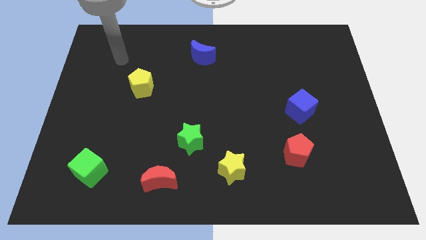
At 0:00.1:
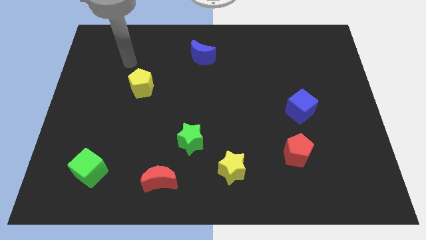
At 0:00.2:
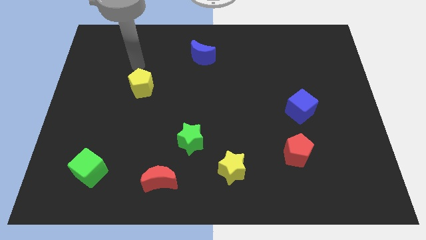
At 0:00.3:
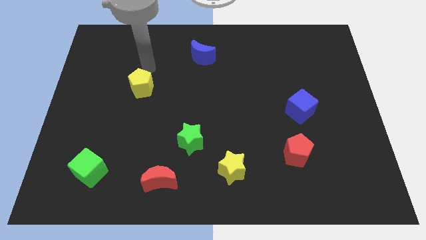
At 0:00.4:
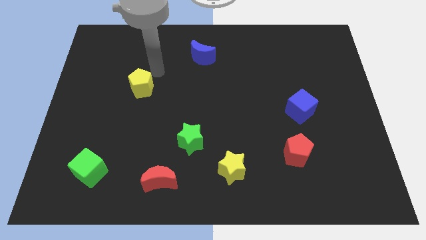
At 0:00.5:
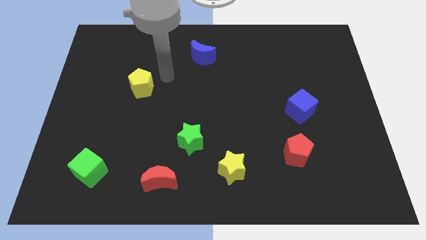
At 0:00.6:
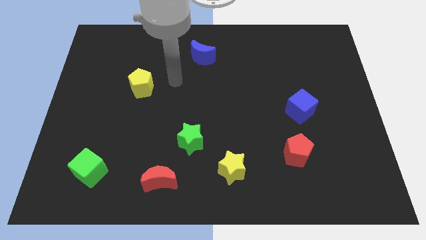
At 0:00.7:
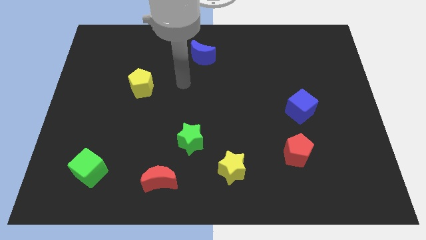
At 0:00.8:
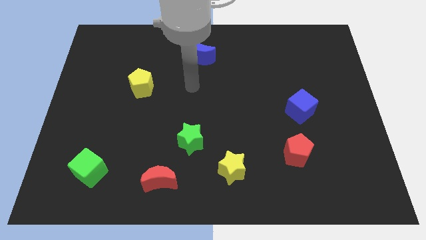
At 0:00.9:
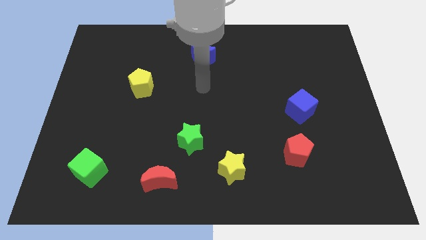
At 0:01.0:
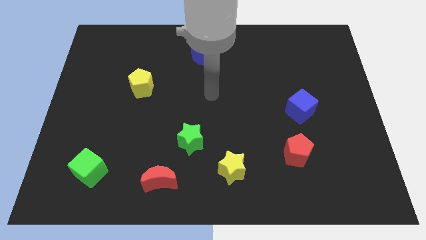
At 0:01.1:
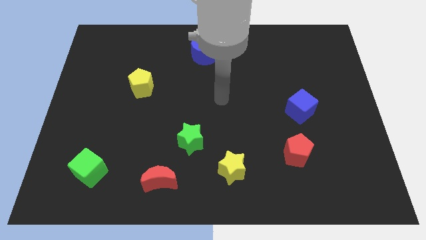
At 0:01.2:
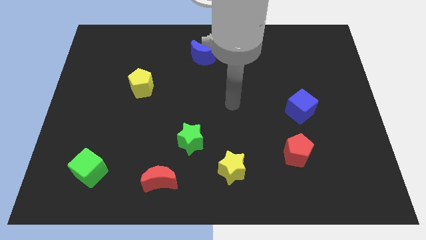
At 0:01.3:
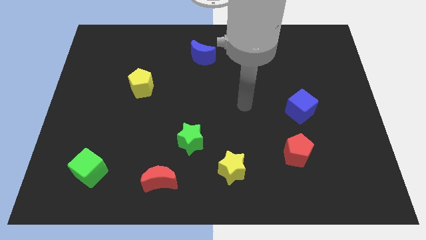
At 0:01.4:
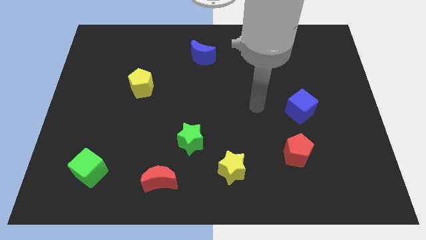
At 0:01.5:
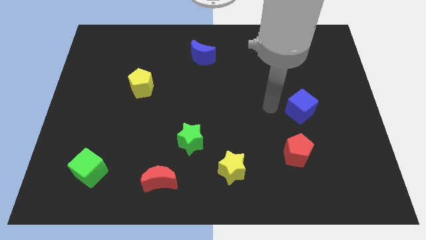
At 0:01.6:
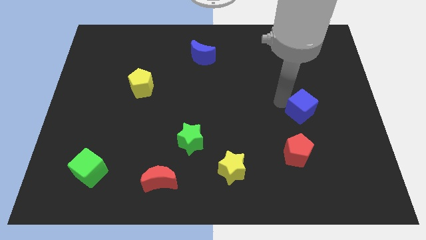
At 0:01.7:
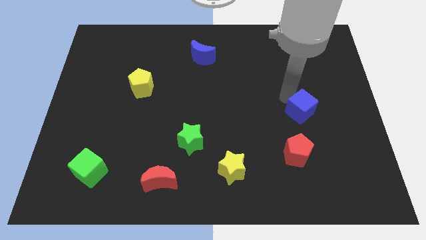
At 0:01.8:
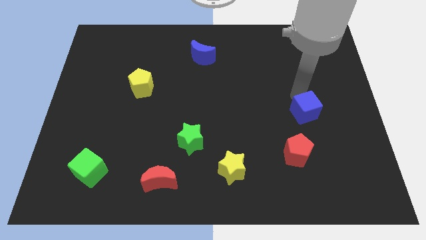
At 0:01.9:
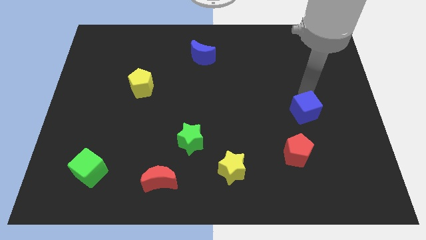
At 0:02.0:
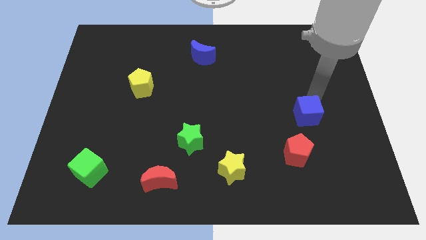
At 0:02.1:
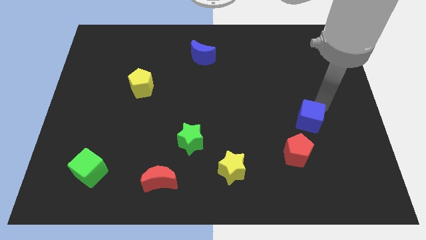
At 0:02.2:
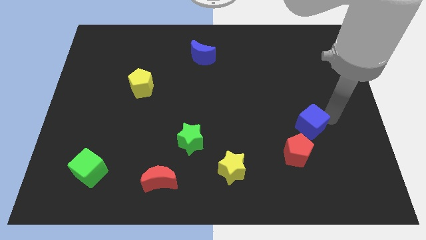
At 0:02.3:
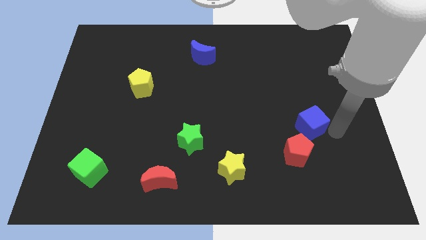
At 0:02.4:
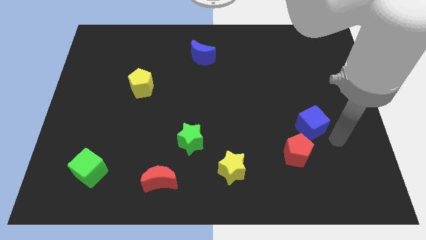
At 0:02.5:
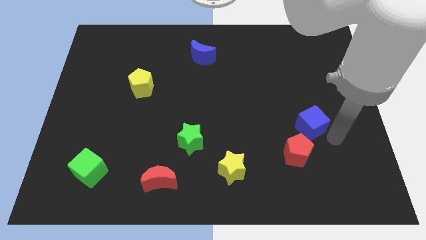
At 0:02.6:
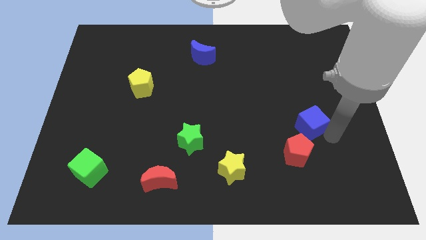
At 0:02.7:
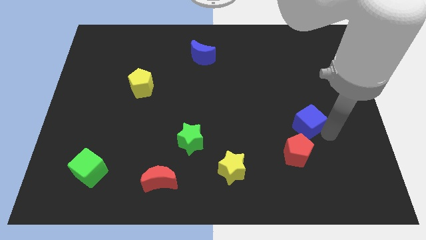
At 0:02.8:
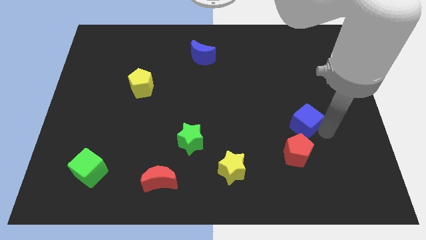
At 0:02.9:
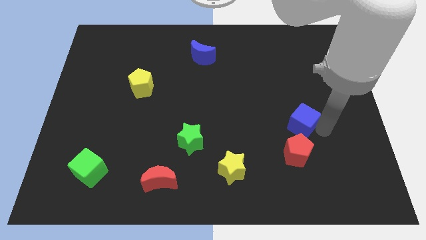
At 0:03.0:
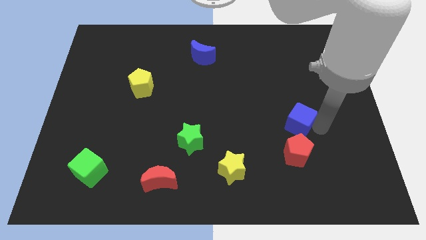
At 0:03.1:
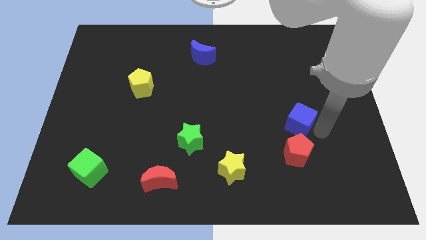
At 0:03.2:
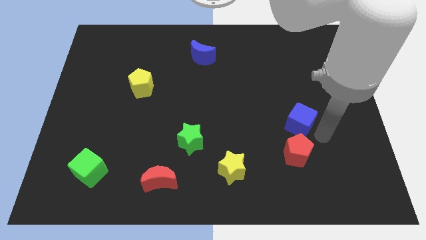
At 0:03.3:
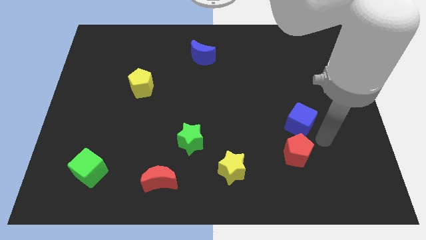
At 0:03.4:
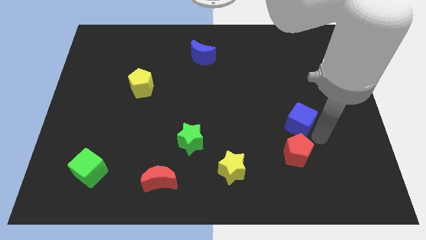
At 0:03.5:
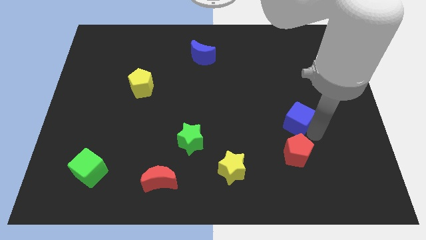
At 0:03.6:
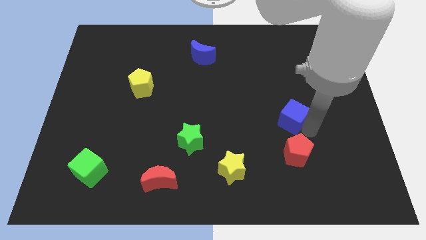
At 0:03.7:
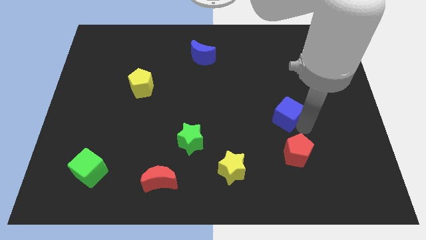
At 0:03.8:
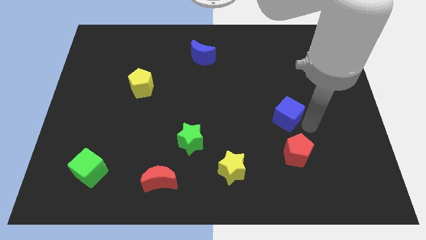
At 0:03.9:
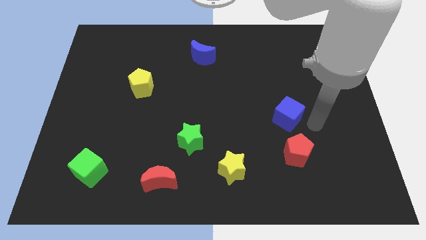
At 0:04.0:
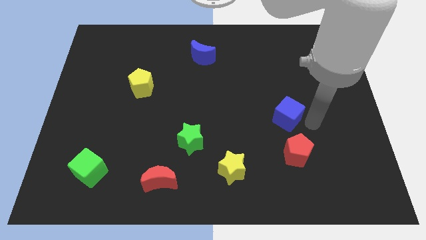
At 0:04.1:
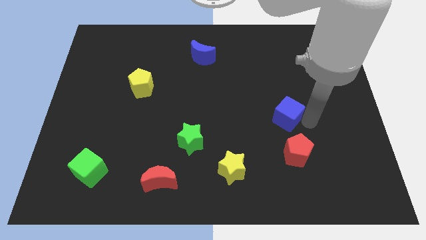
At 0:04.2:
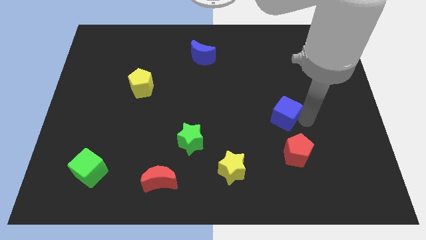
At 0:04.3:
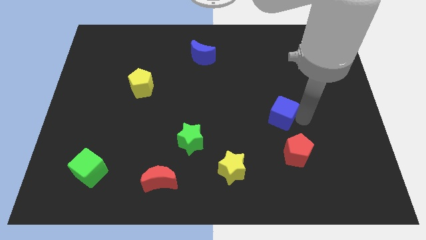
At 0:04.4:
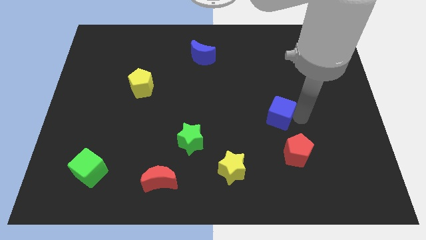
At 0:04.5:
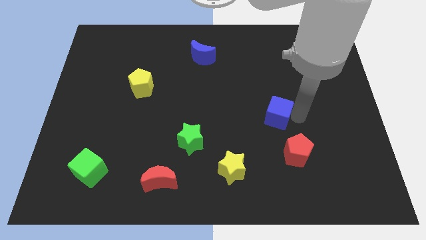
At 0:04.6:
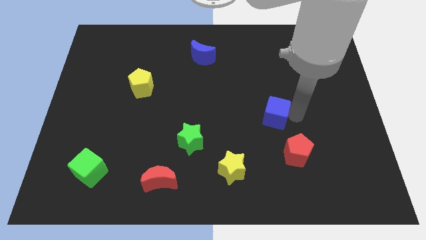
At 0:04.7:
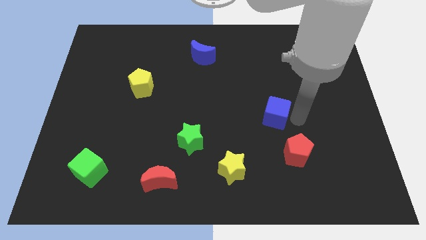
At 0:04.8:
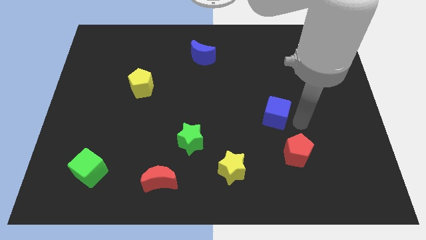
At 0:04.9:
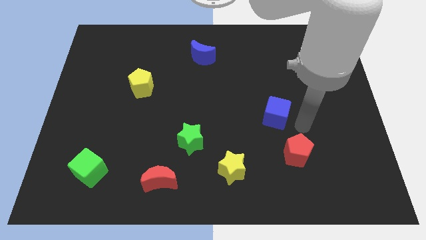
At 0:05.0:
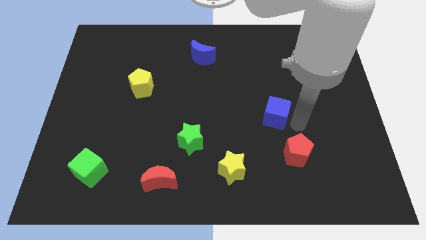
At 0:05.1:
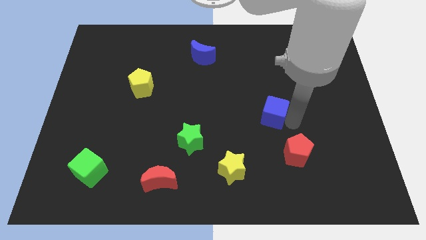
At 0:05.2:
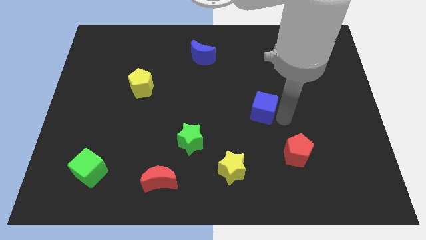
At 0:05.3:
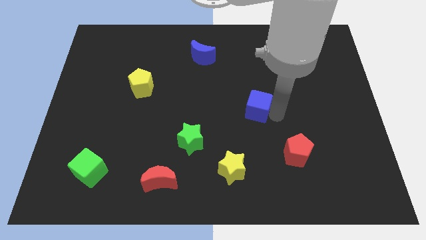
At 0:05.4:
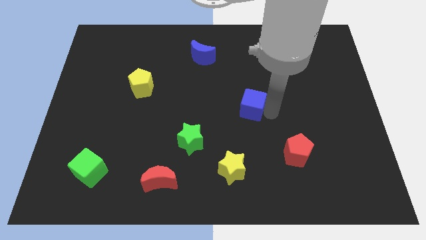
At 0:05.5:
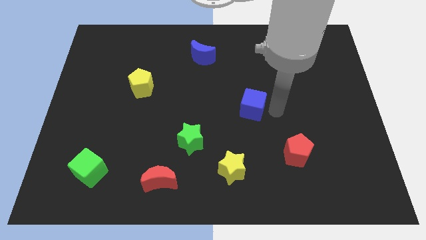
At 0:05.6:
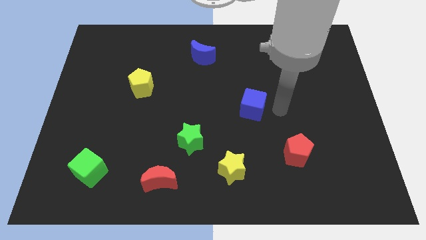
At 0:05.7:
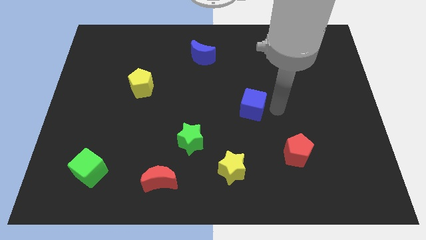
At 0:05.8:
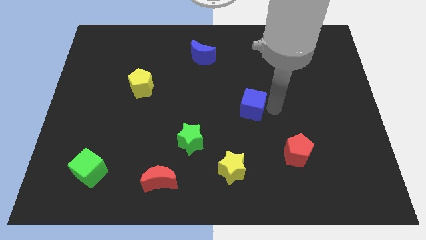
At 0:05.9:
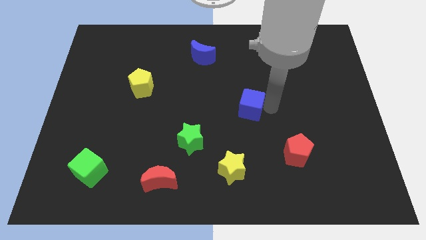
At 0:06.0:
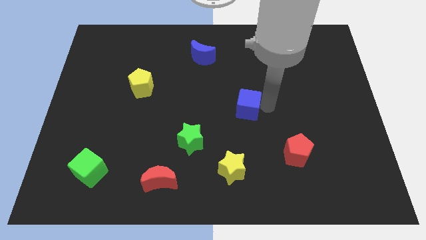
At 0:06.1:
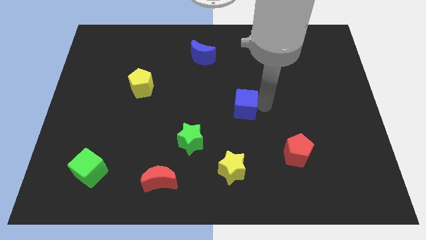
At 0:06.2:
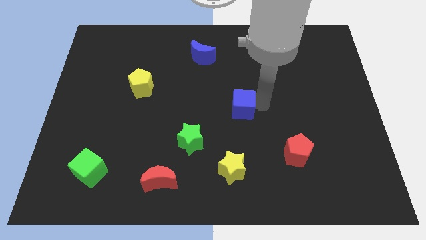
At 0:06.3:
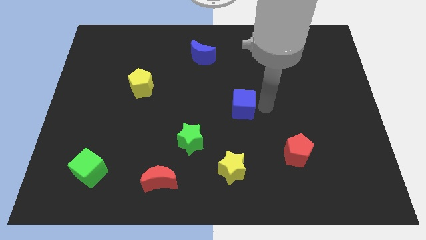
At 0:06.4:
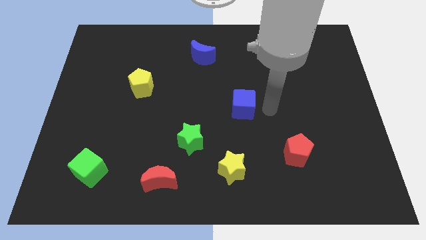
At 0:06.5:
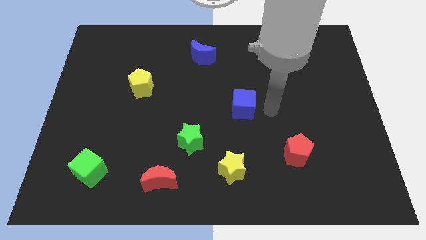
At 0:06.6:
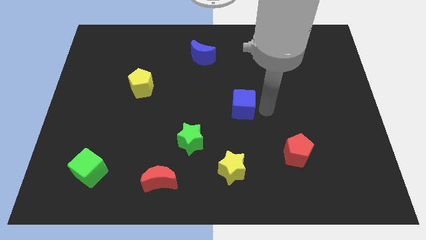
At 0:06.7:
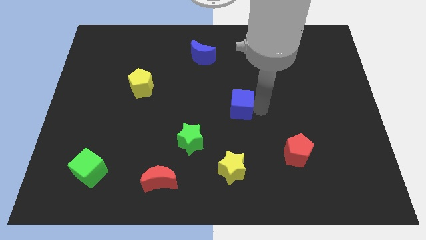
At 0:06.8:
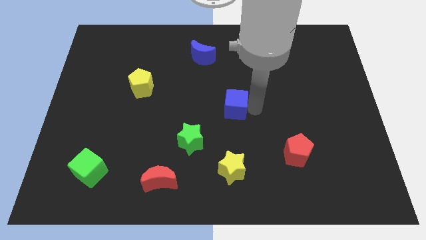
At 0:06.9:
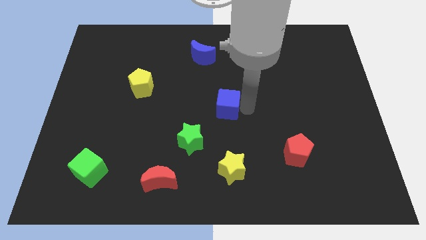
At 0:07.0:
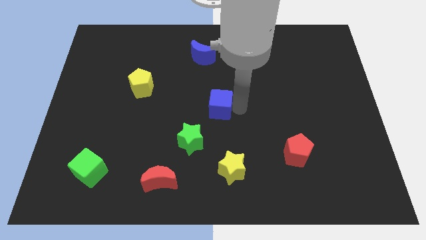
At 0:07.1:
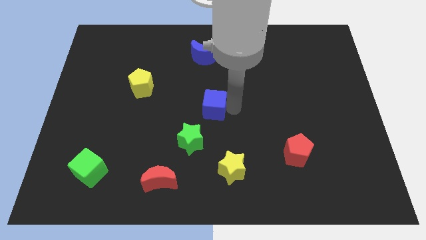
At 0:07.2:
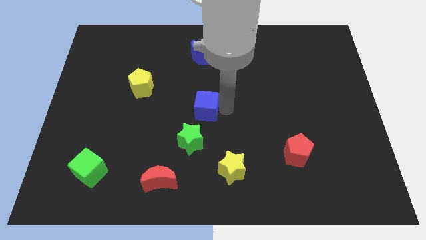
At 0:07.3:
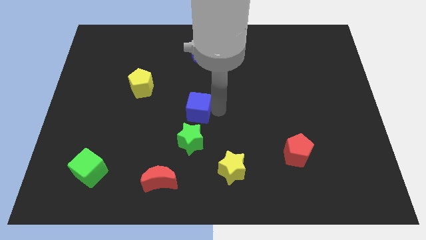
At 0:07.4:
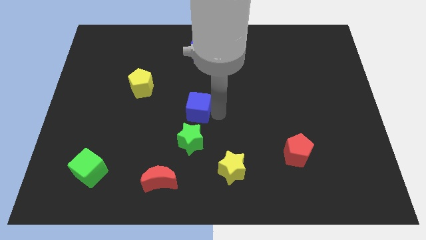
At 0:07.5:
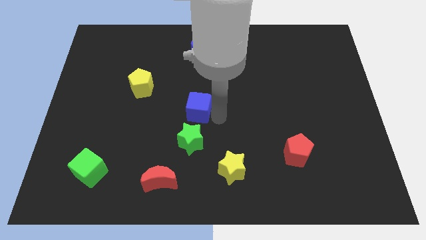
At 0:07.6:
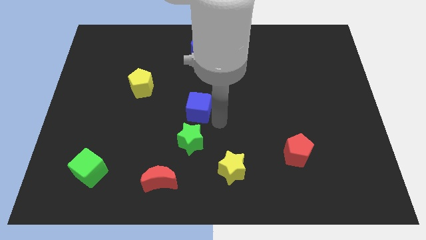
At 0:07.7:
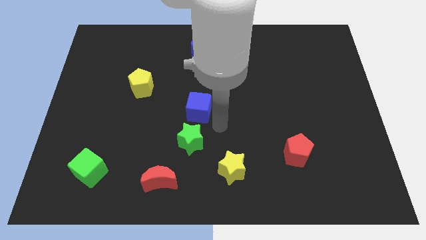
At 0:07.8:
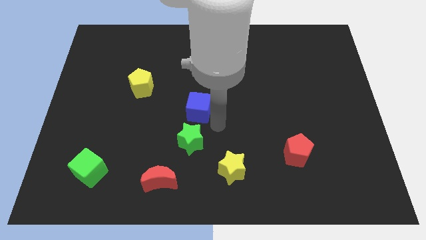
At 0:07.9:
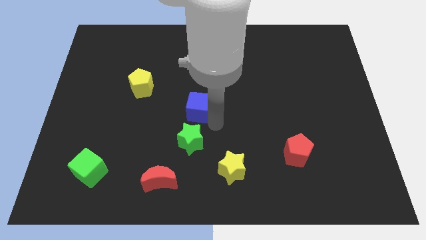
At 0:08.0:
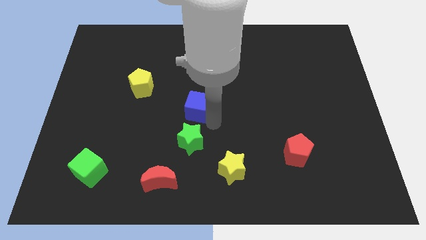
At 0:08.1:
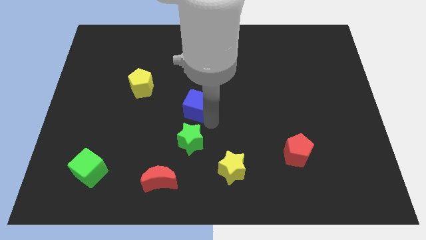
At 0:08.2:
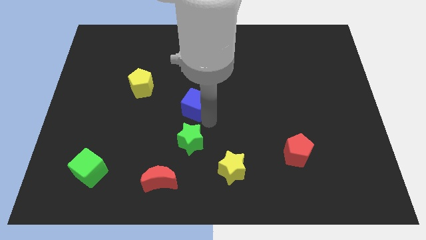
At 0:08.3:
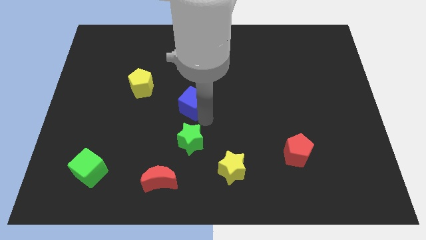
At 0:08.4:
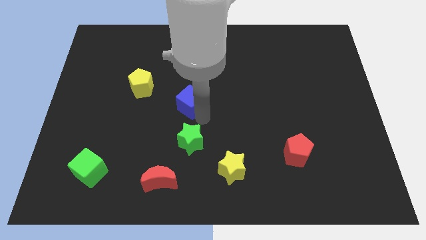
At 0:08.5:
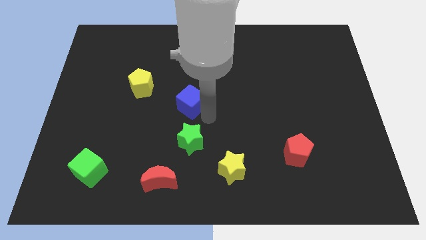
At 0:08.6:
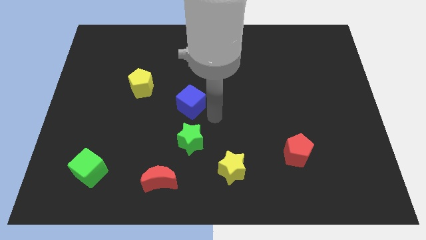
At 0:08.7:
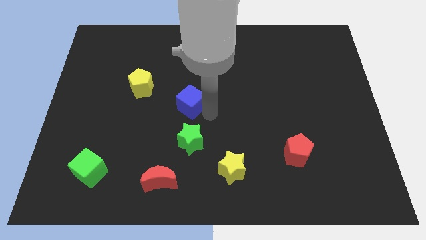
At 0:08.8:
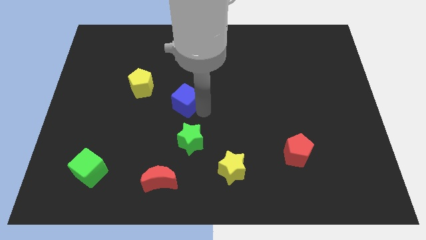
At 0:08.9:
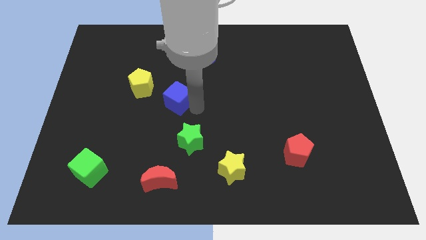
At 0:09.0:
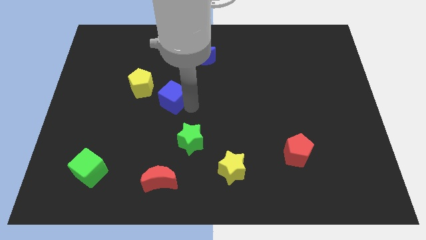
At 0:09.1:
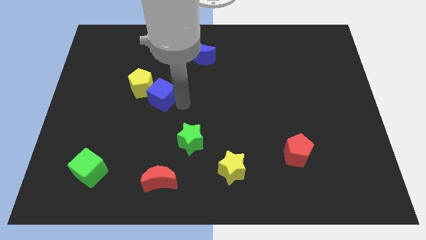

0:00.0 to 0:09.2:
push the blue cube towards the yellow pentagon
